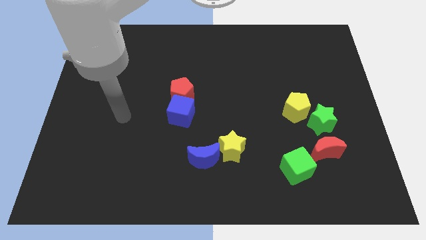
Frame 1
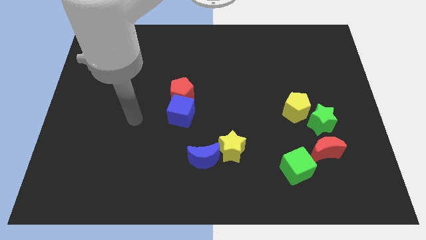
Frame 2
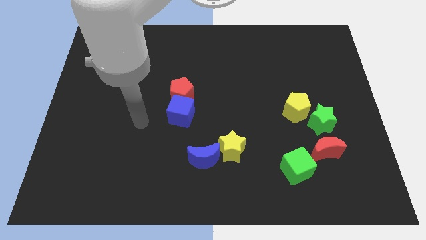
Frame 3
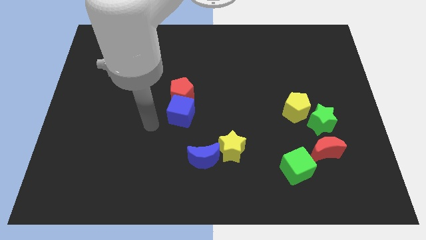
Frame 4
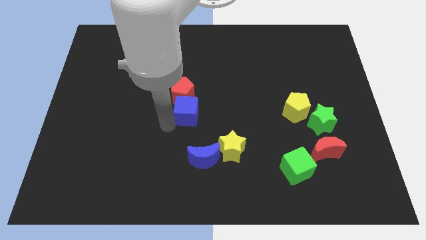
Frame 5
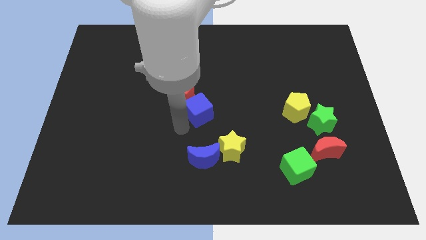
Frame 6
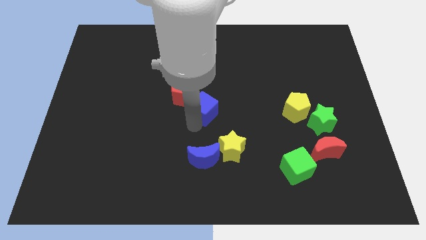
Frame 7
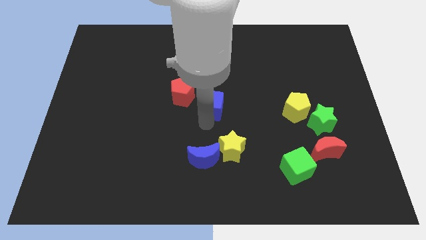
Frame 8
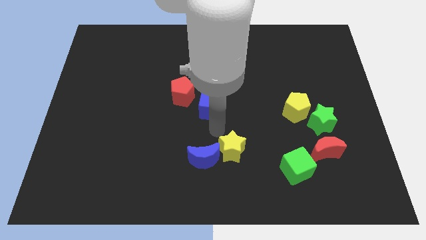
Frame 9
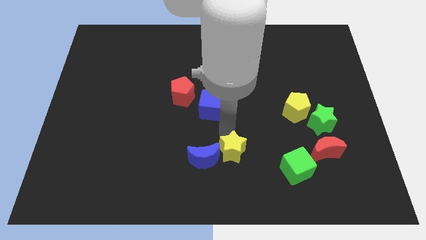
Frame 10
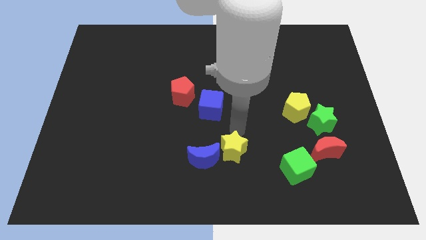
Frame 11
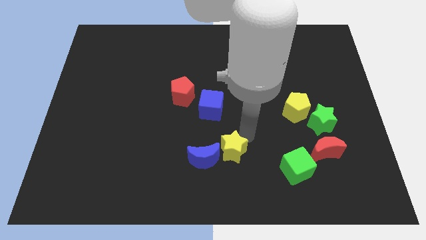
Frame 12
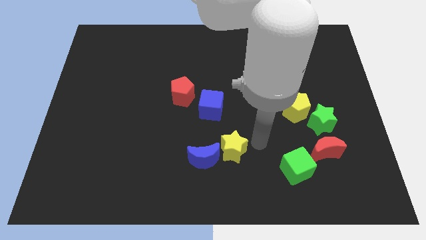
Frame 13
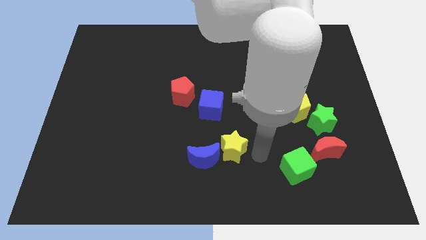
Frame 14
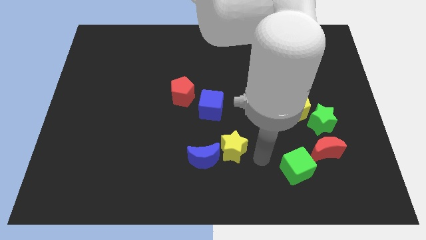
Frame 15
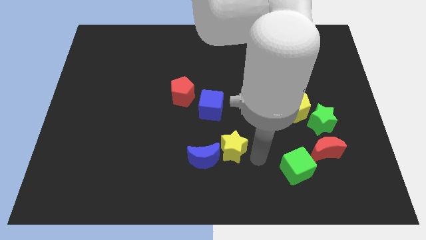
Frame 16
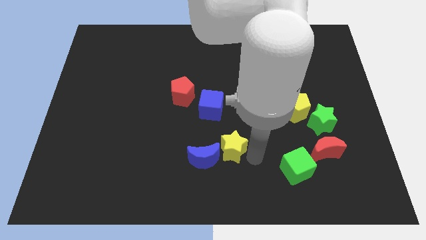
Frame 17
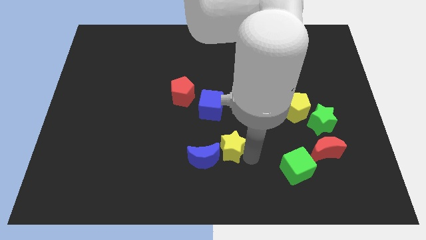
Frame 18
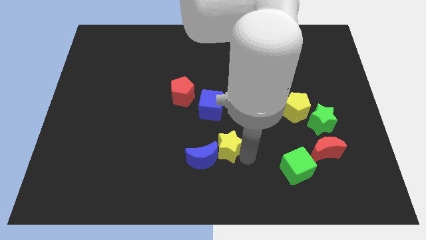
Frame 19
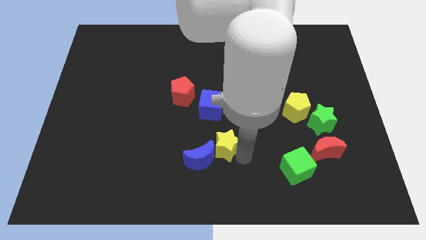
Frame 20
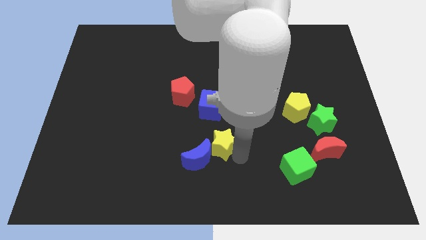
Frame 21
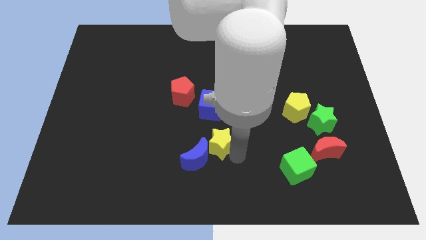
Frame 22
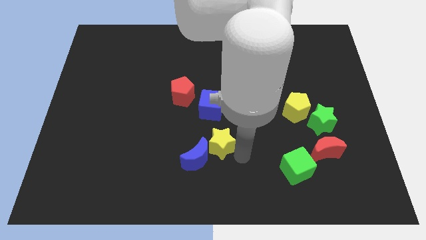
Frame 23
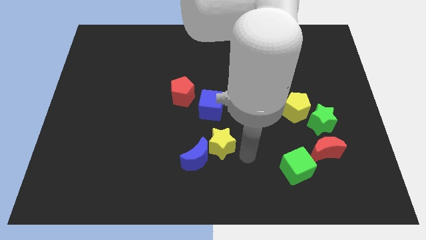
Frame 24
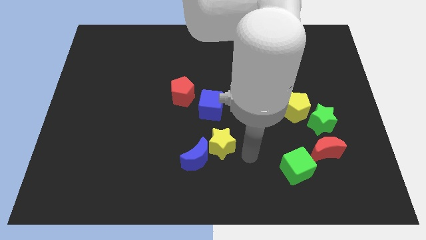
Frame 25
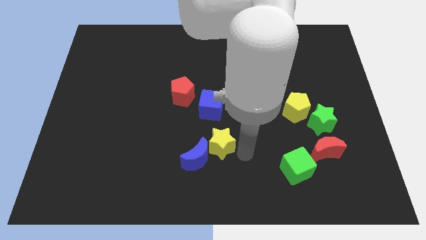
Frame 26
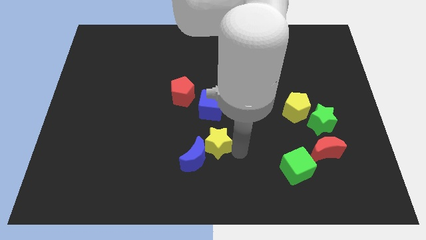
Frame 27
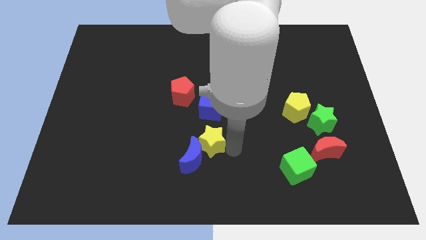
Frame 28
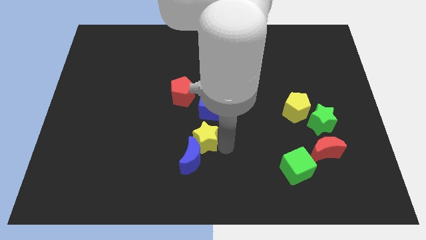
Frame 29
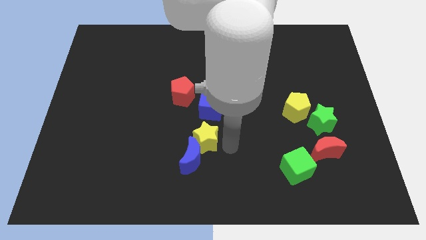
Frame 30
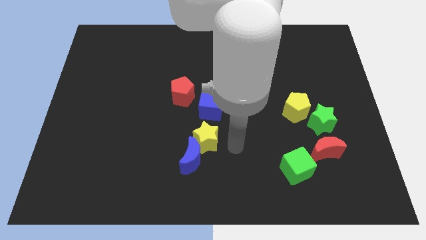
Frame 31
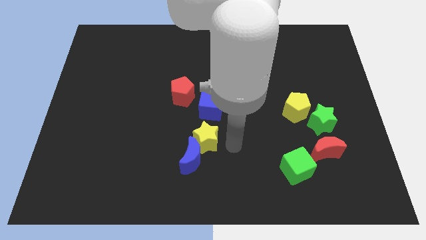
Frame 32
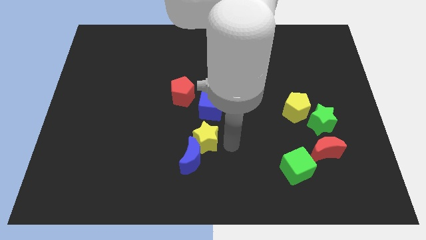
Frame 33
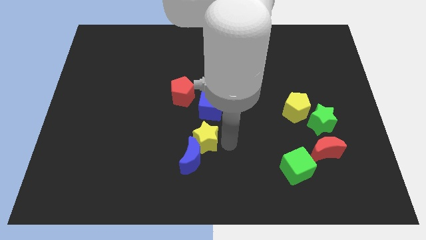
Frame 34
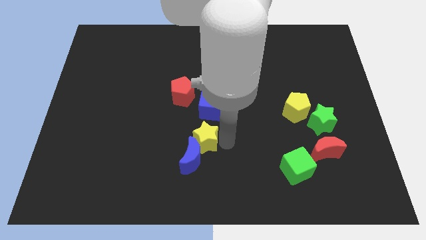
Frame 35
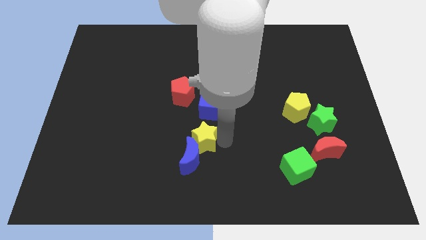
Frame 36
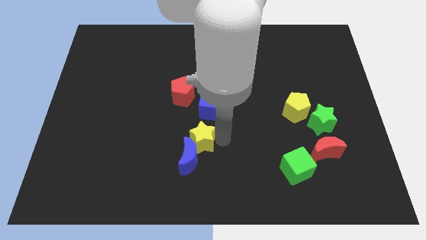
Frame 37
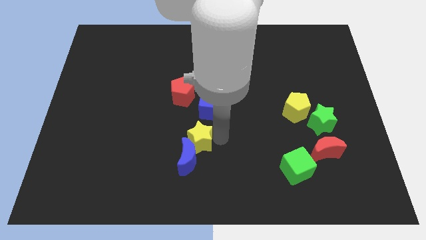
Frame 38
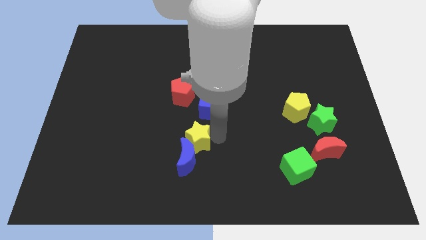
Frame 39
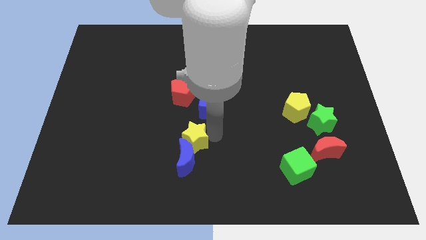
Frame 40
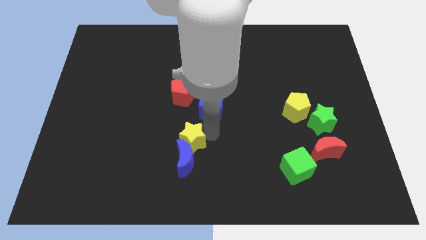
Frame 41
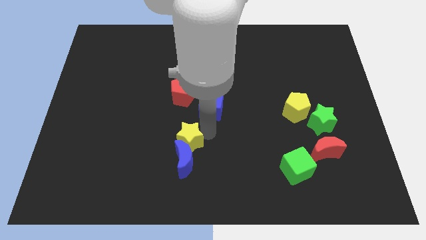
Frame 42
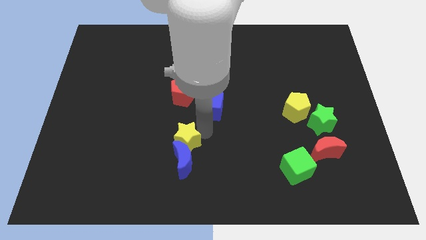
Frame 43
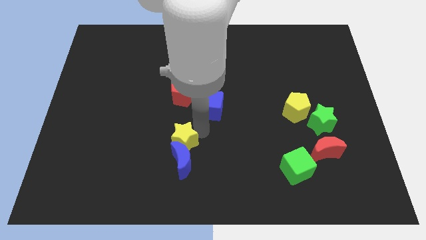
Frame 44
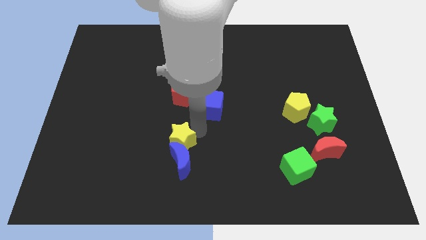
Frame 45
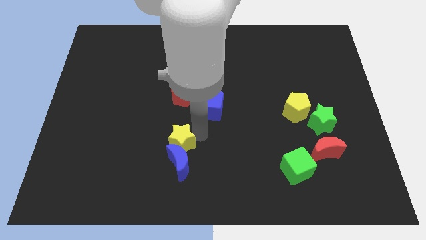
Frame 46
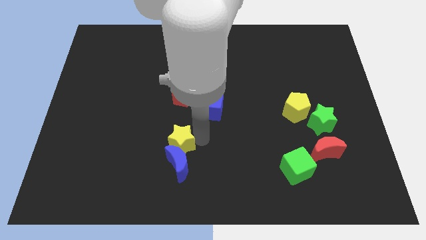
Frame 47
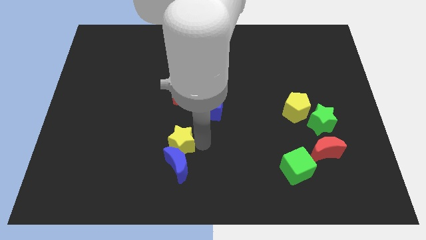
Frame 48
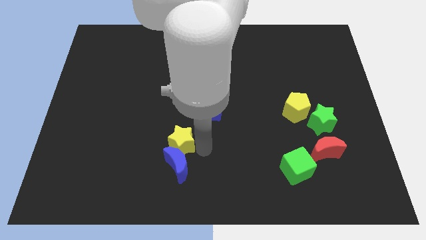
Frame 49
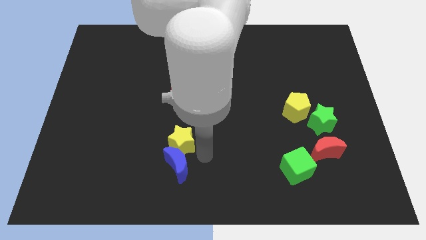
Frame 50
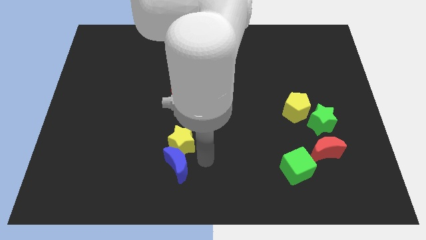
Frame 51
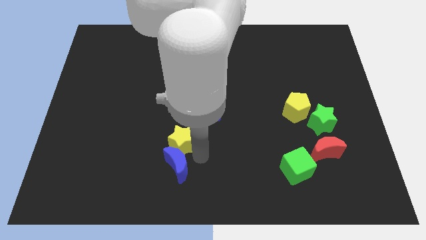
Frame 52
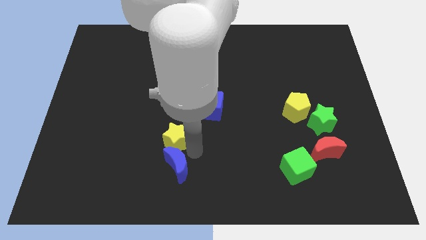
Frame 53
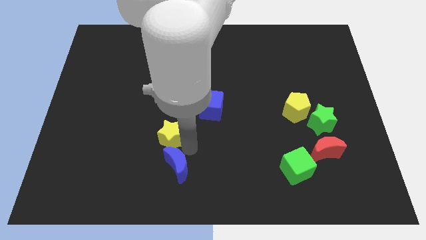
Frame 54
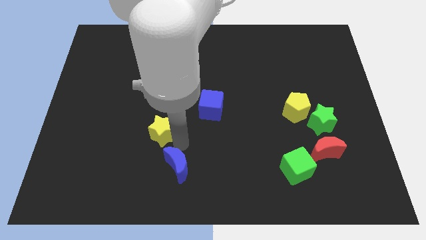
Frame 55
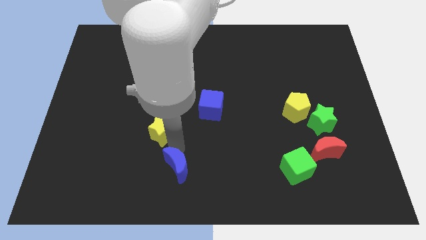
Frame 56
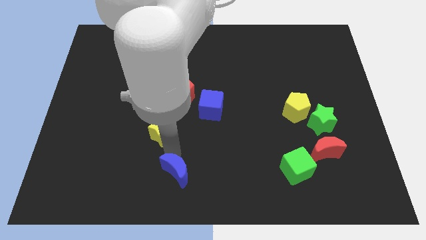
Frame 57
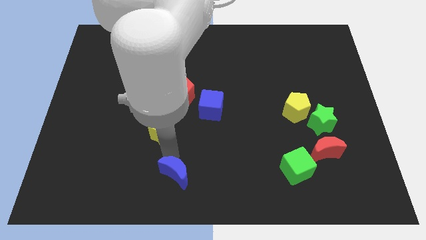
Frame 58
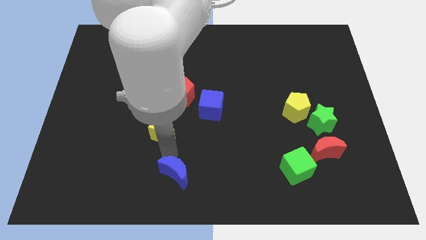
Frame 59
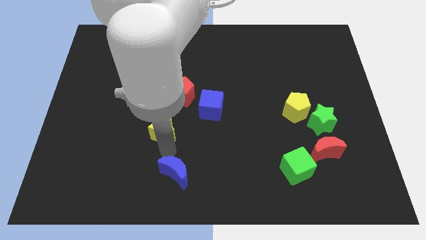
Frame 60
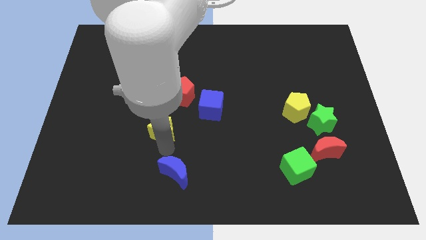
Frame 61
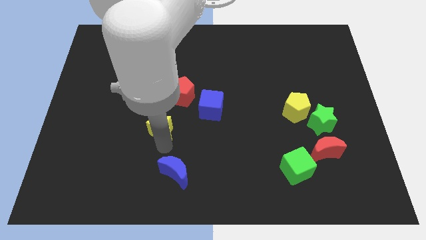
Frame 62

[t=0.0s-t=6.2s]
slide the yellow star to the bottom left side of the red pentagon
